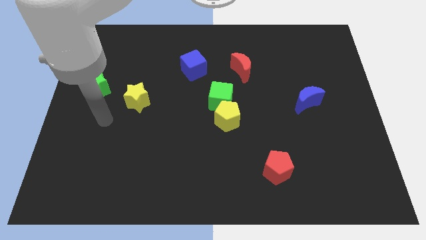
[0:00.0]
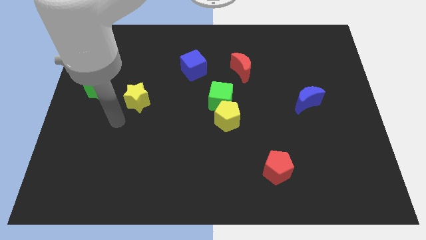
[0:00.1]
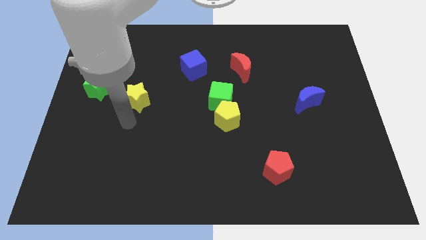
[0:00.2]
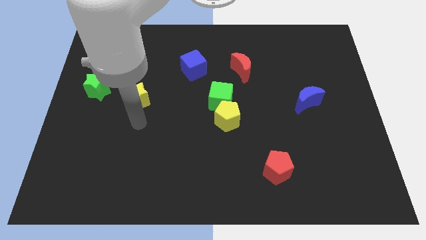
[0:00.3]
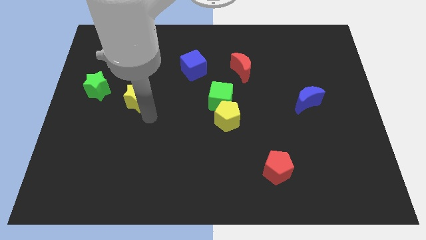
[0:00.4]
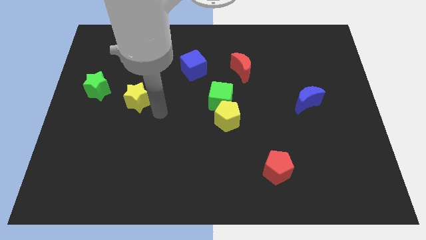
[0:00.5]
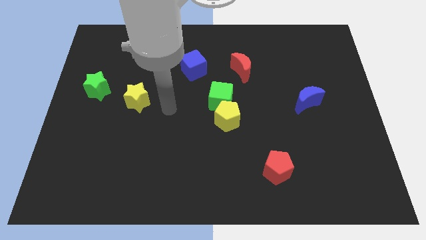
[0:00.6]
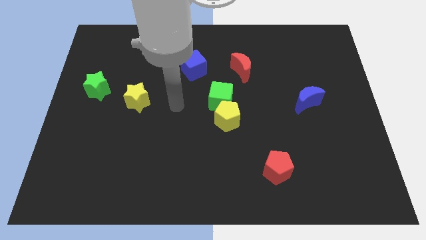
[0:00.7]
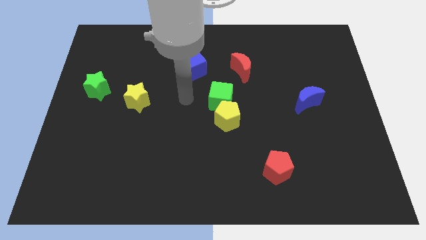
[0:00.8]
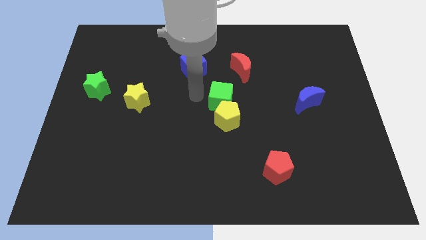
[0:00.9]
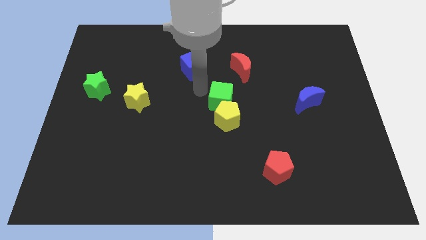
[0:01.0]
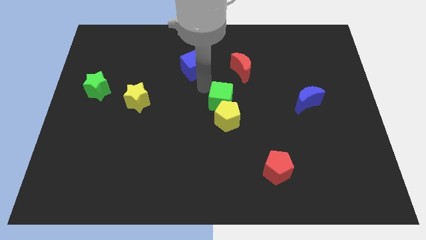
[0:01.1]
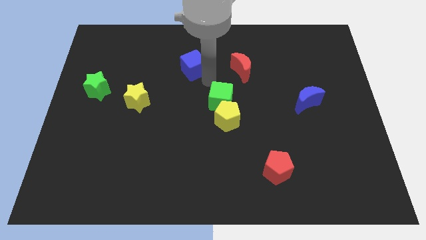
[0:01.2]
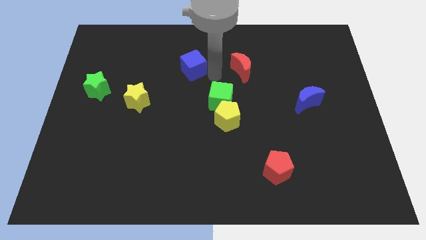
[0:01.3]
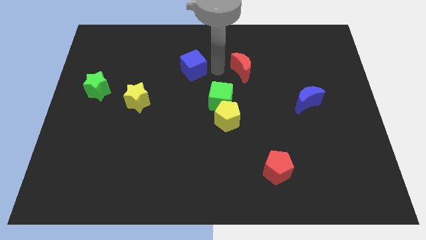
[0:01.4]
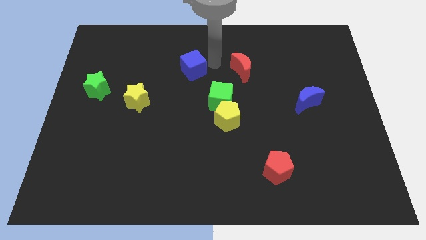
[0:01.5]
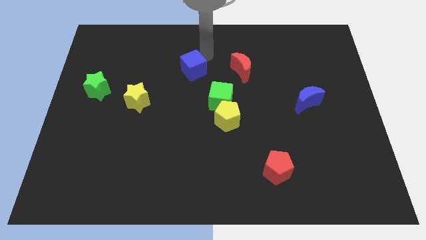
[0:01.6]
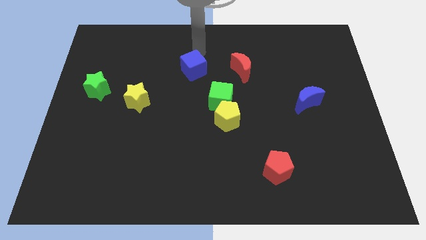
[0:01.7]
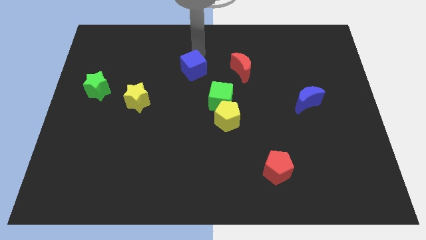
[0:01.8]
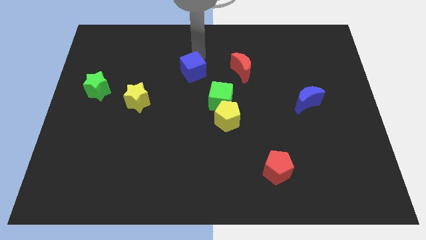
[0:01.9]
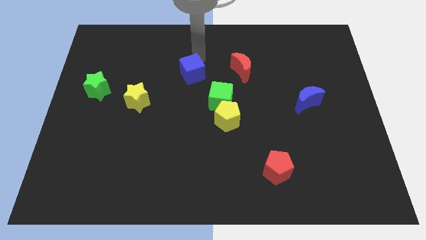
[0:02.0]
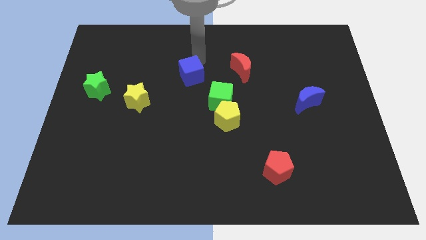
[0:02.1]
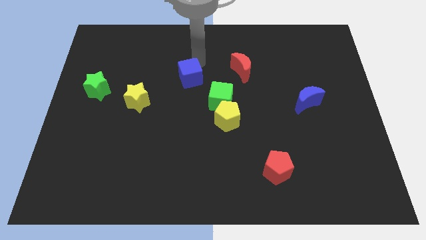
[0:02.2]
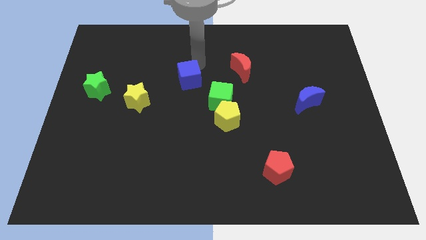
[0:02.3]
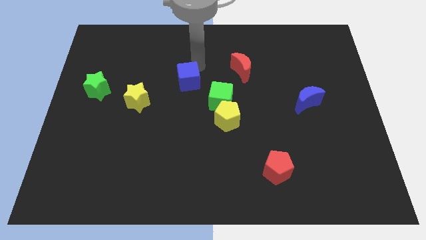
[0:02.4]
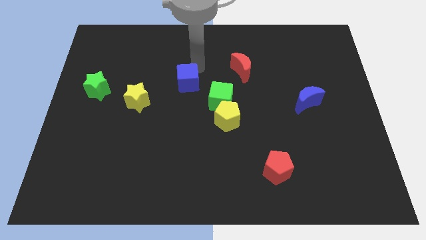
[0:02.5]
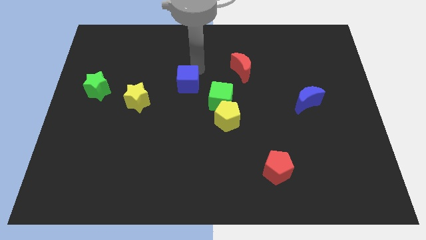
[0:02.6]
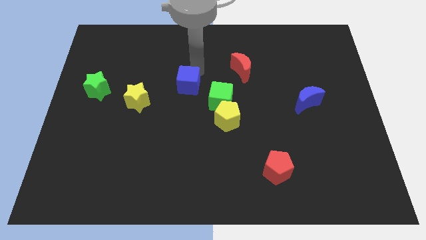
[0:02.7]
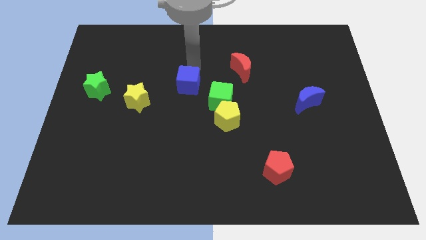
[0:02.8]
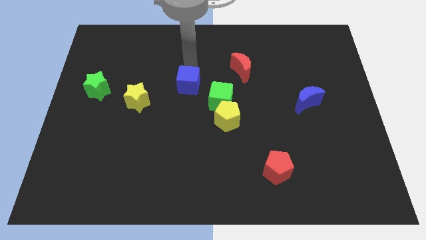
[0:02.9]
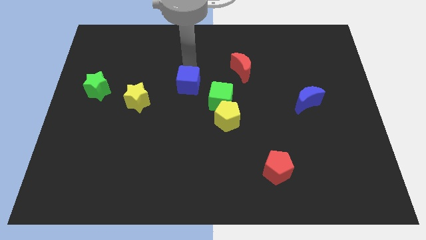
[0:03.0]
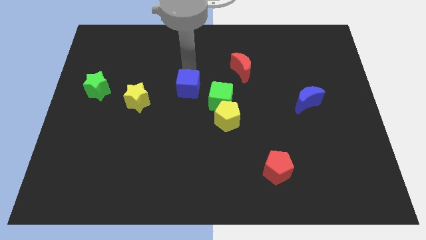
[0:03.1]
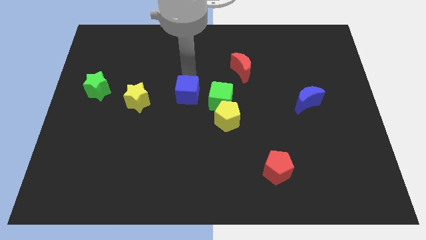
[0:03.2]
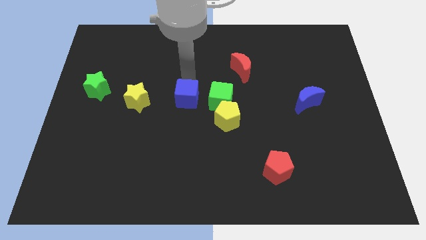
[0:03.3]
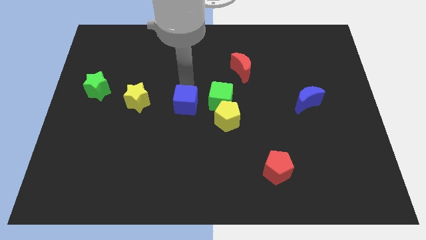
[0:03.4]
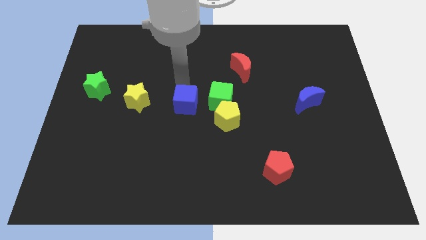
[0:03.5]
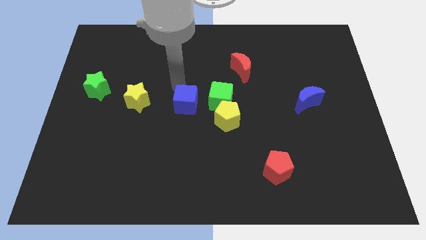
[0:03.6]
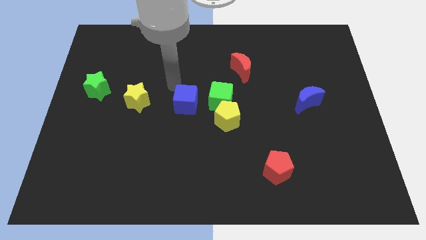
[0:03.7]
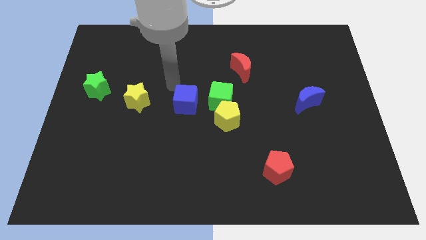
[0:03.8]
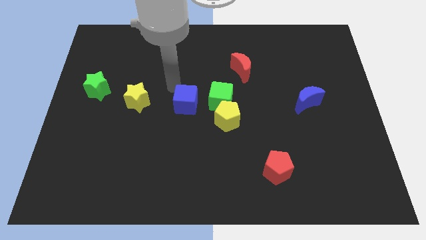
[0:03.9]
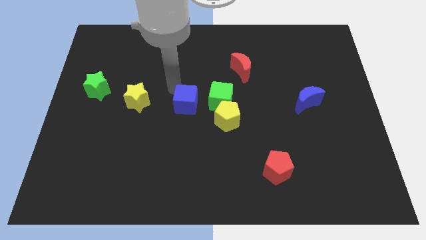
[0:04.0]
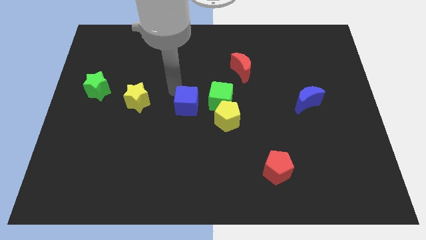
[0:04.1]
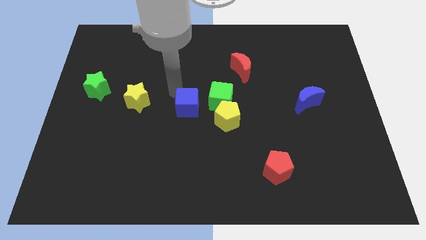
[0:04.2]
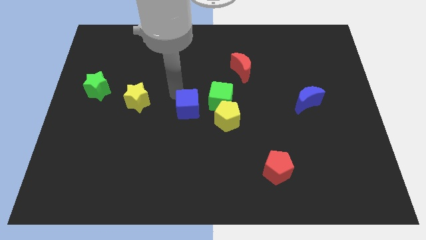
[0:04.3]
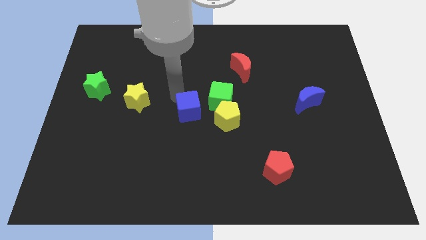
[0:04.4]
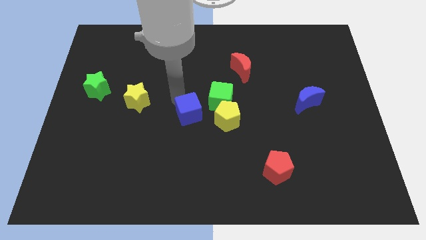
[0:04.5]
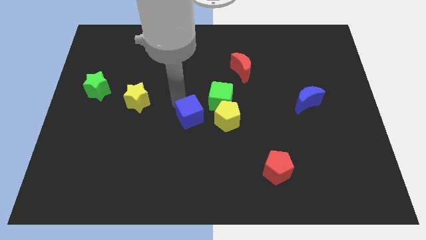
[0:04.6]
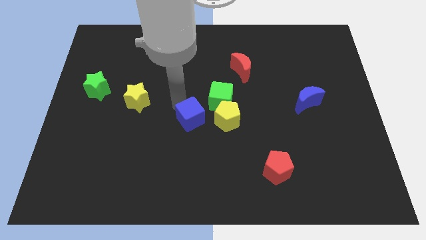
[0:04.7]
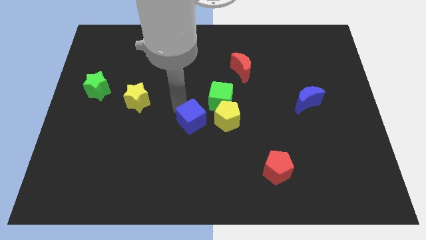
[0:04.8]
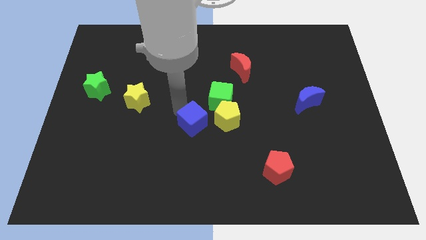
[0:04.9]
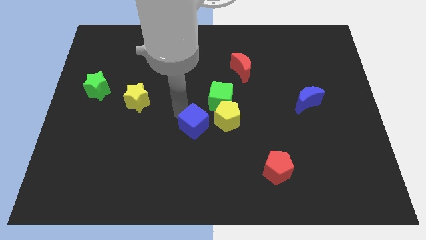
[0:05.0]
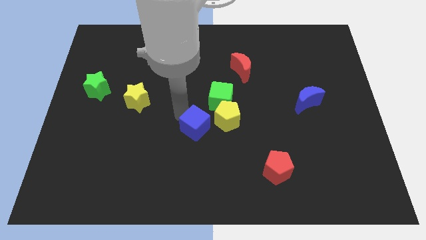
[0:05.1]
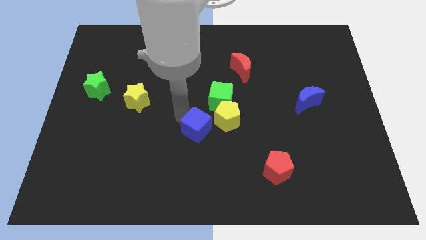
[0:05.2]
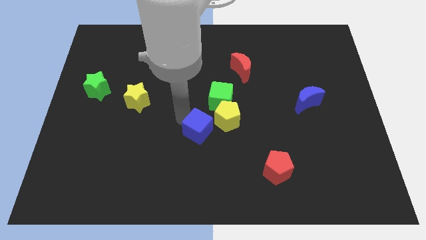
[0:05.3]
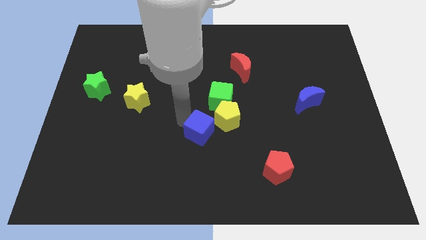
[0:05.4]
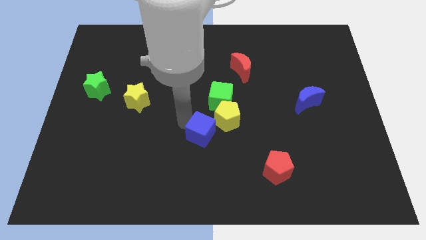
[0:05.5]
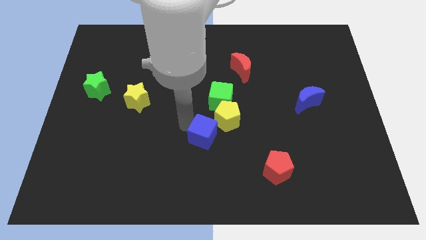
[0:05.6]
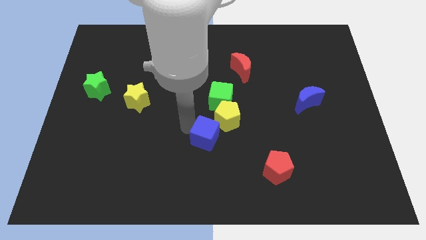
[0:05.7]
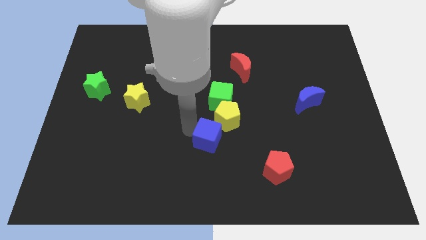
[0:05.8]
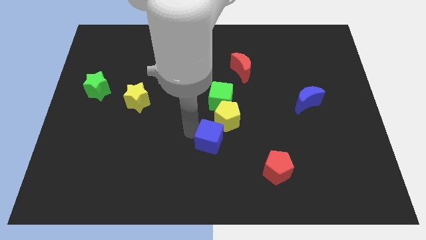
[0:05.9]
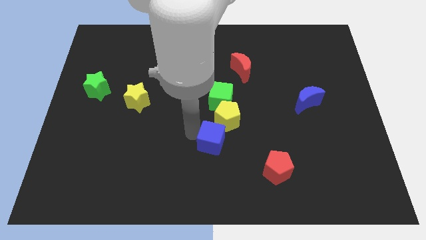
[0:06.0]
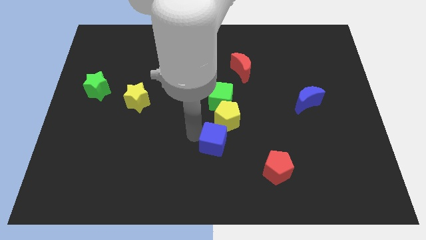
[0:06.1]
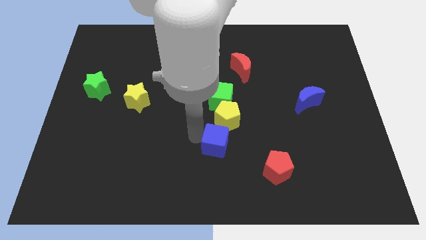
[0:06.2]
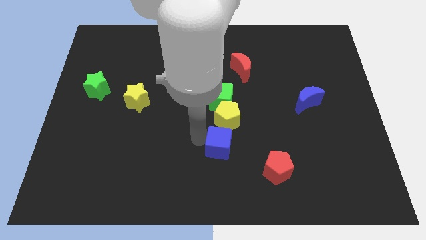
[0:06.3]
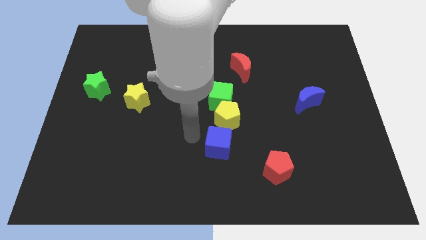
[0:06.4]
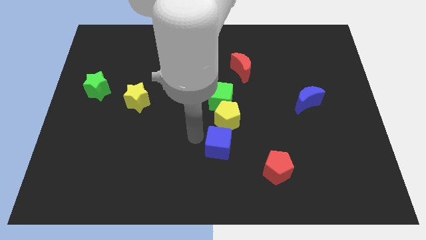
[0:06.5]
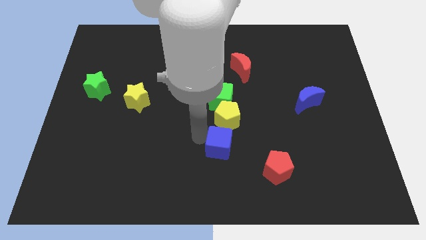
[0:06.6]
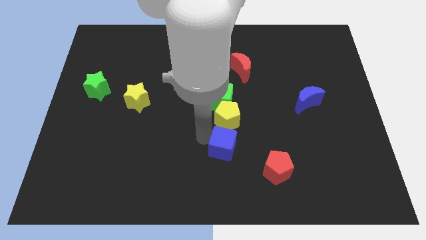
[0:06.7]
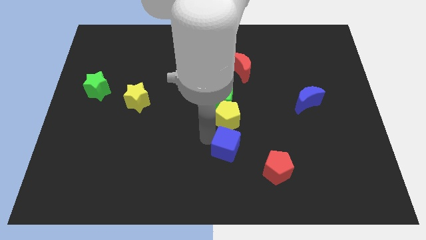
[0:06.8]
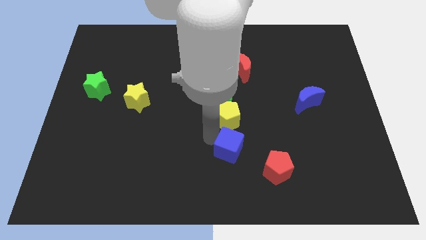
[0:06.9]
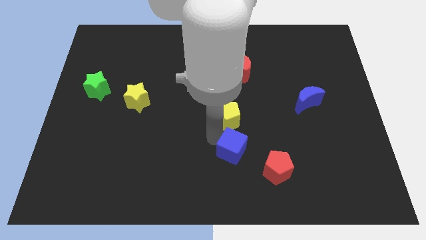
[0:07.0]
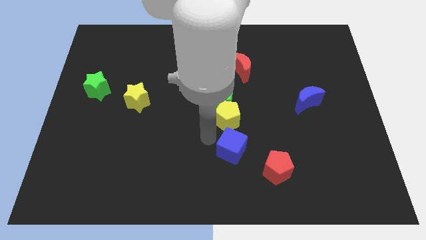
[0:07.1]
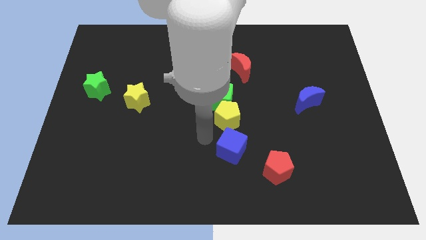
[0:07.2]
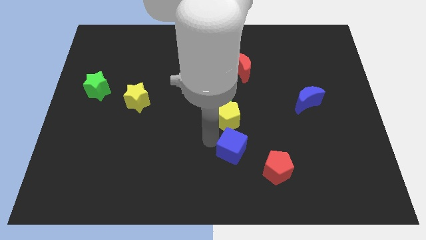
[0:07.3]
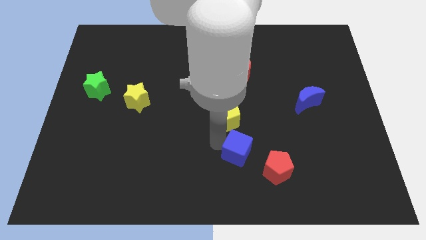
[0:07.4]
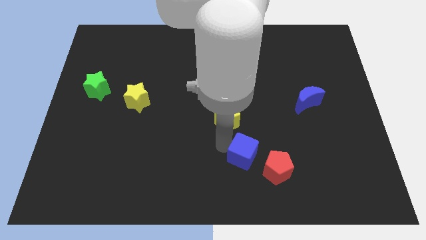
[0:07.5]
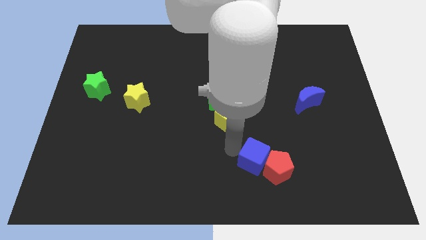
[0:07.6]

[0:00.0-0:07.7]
put the blue cube next to the red pentagon
